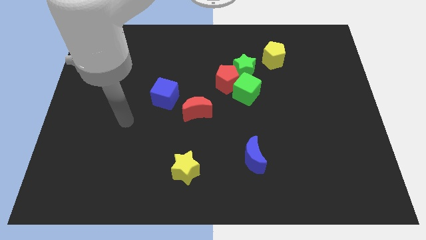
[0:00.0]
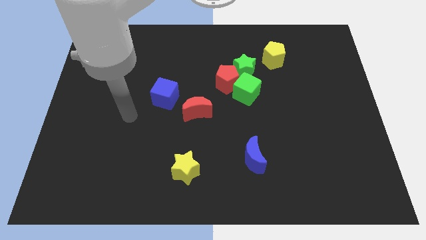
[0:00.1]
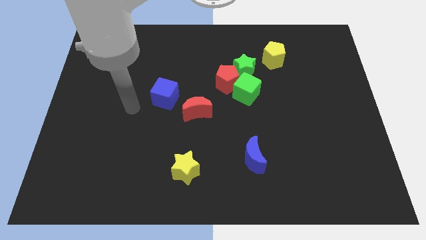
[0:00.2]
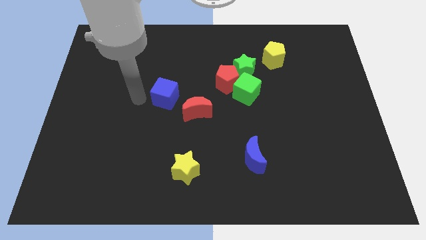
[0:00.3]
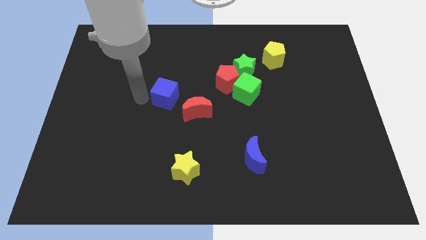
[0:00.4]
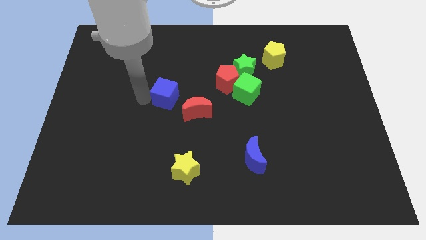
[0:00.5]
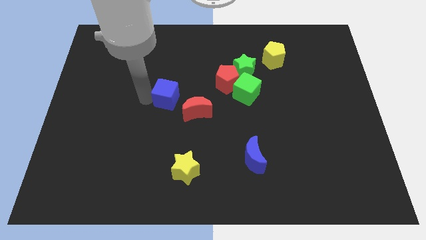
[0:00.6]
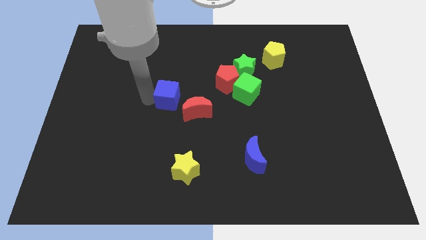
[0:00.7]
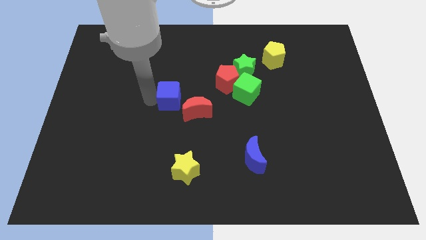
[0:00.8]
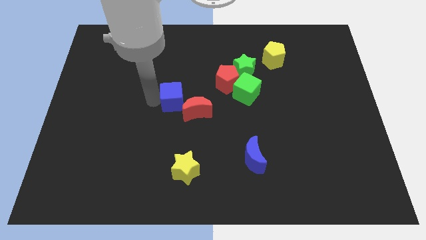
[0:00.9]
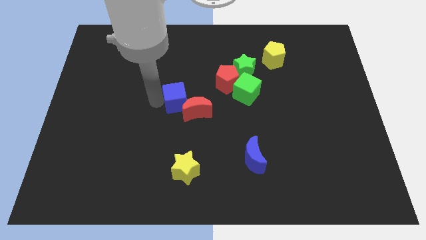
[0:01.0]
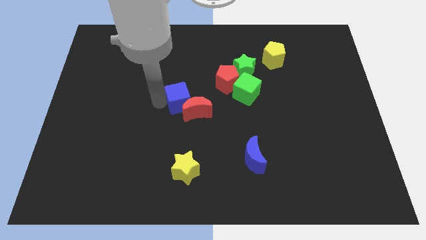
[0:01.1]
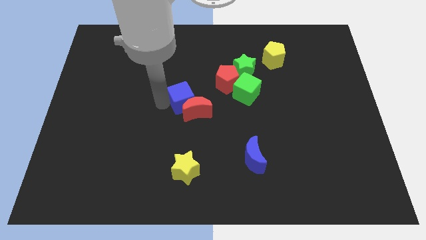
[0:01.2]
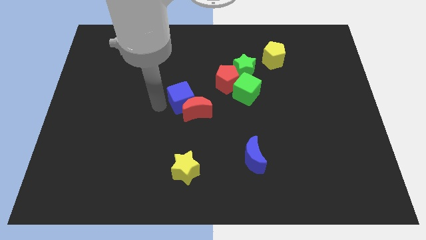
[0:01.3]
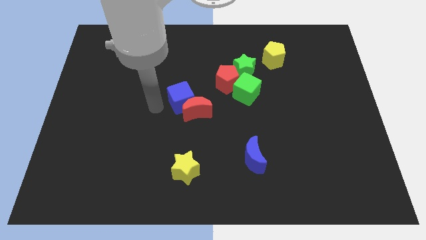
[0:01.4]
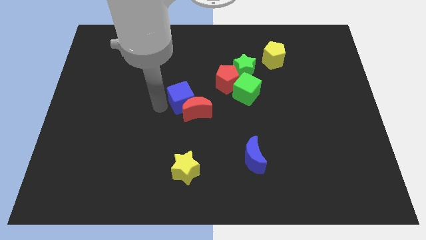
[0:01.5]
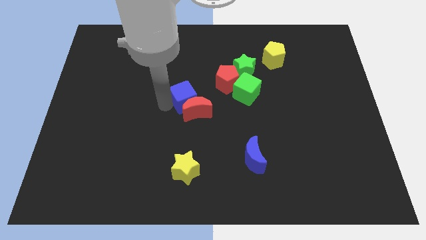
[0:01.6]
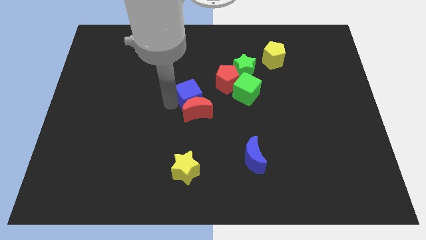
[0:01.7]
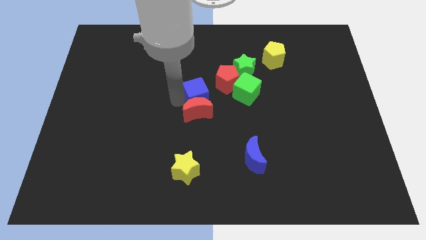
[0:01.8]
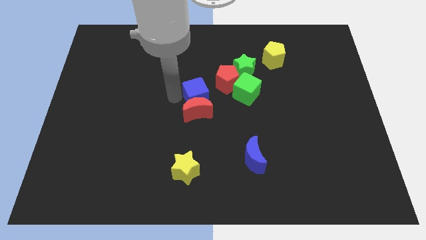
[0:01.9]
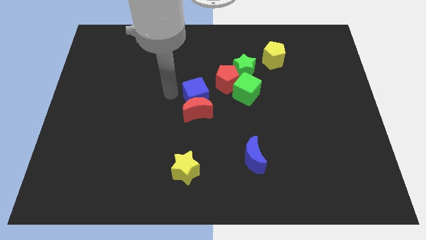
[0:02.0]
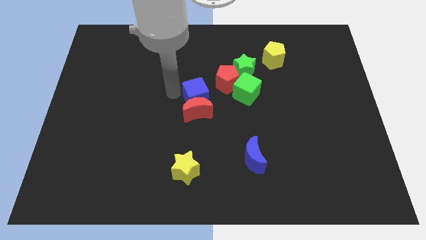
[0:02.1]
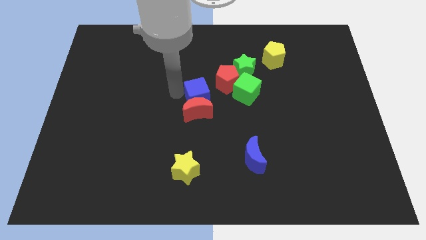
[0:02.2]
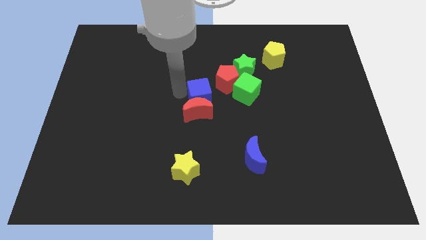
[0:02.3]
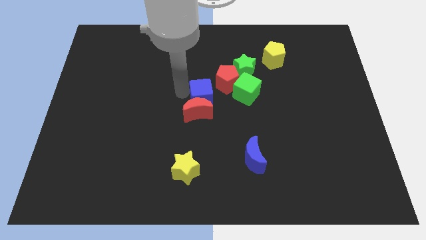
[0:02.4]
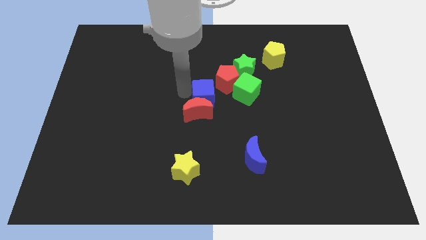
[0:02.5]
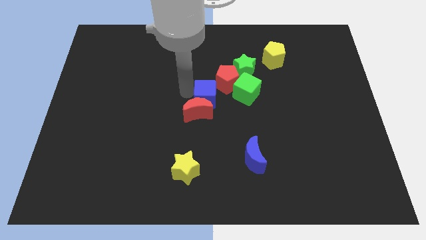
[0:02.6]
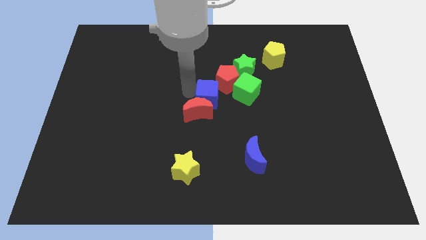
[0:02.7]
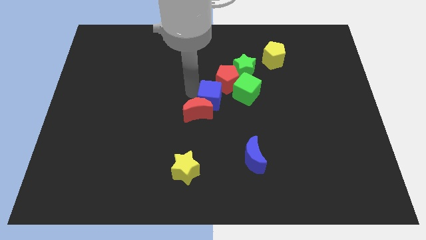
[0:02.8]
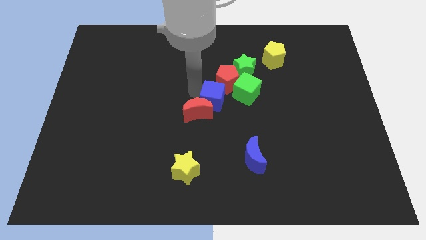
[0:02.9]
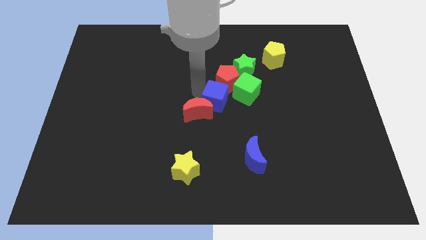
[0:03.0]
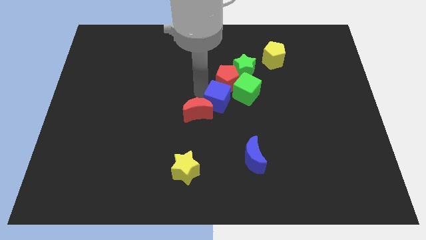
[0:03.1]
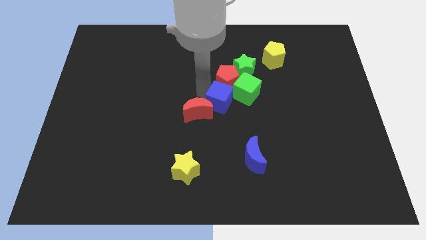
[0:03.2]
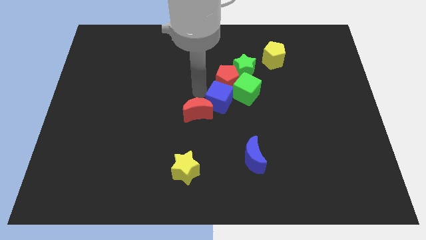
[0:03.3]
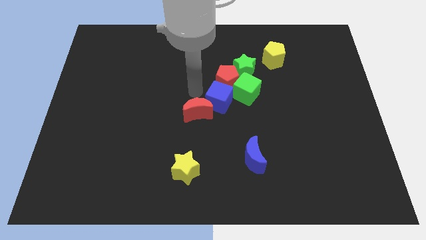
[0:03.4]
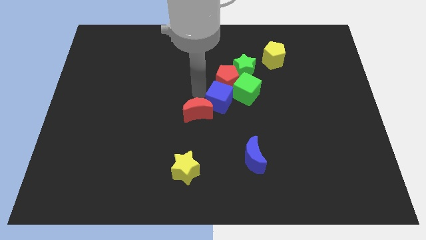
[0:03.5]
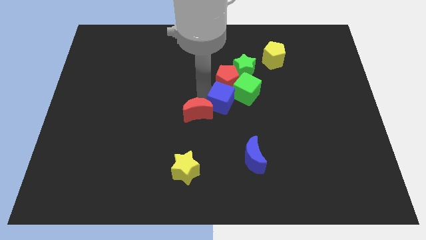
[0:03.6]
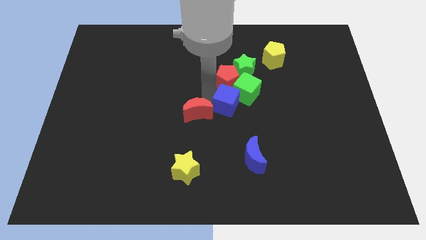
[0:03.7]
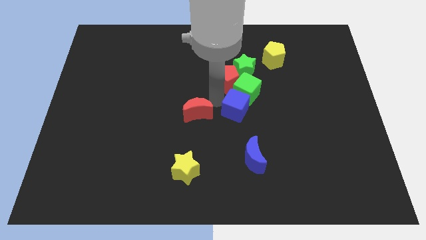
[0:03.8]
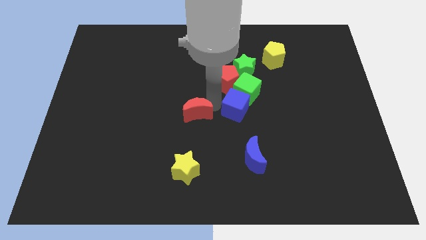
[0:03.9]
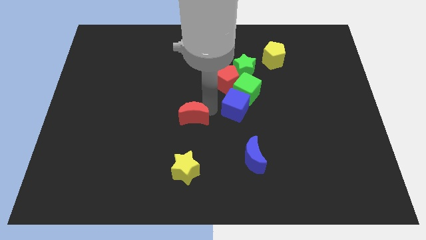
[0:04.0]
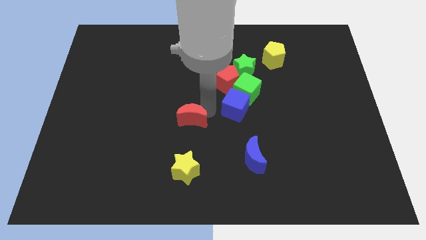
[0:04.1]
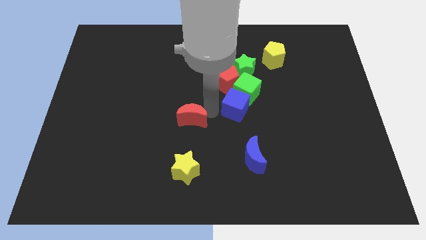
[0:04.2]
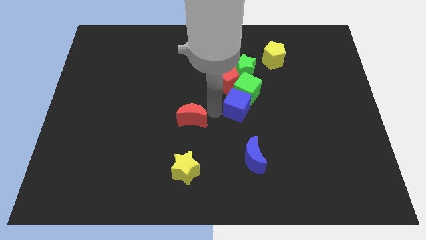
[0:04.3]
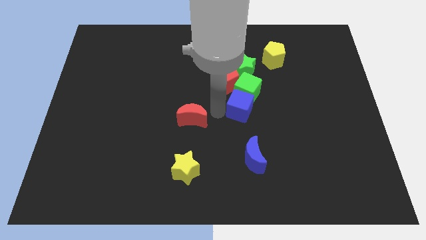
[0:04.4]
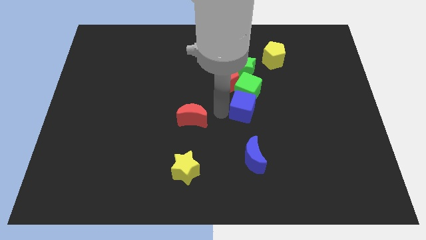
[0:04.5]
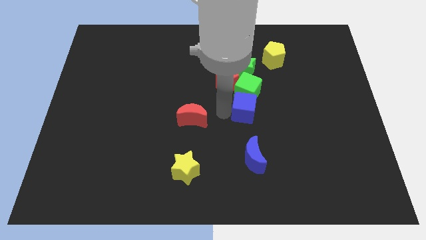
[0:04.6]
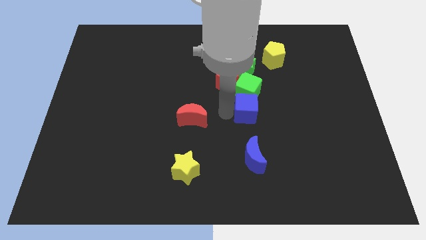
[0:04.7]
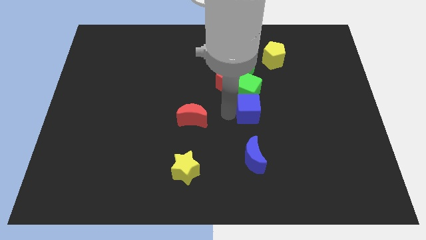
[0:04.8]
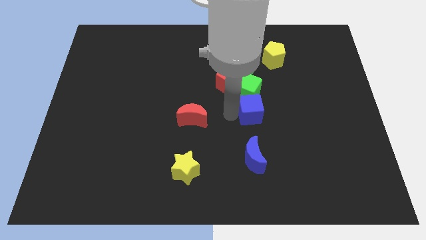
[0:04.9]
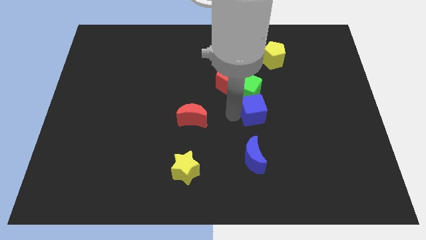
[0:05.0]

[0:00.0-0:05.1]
move the blue cube right

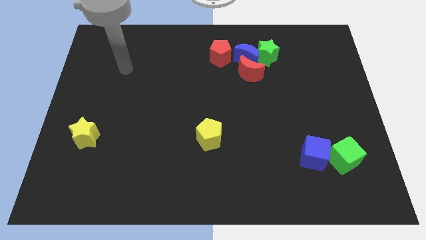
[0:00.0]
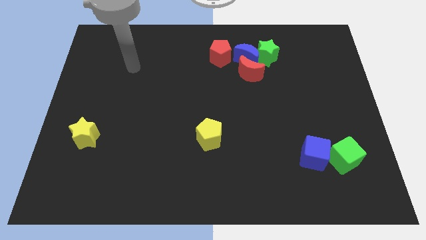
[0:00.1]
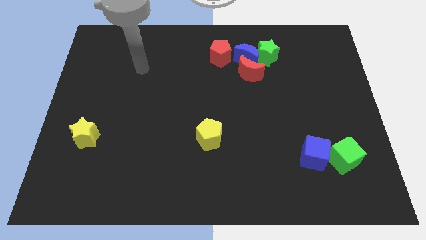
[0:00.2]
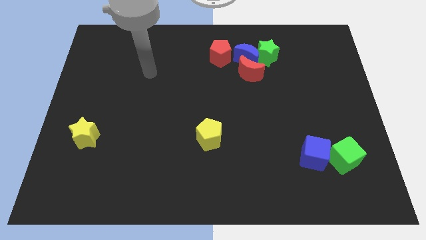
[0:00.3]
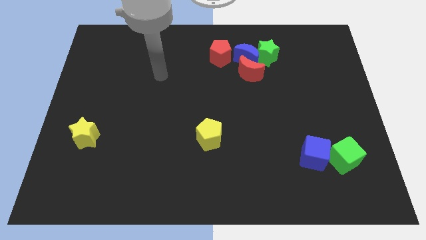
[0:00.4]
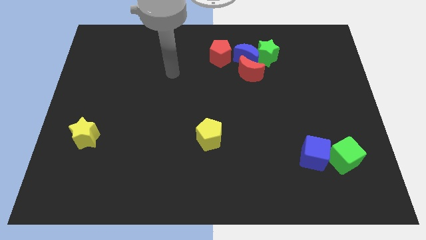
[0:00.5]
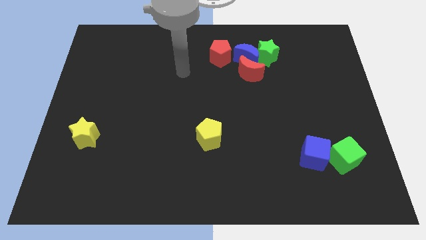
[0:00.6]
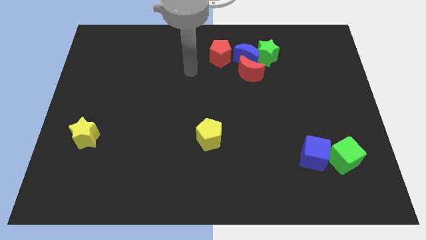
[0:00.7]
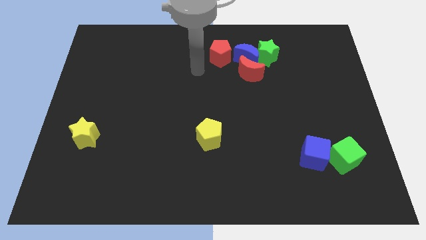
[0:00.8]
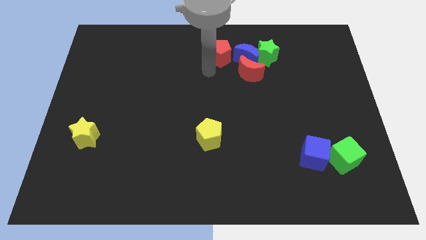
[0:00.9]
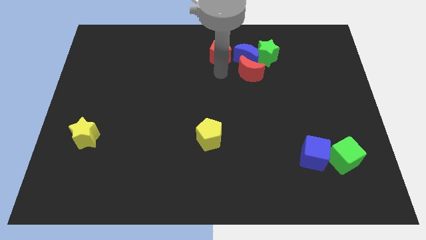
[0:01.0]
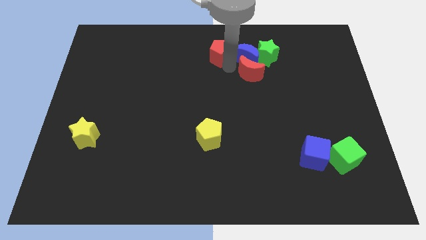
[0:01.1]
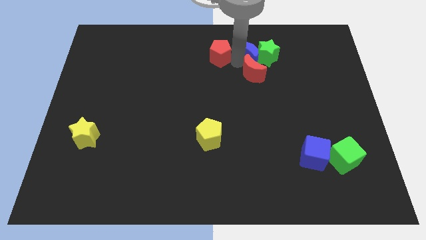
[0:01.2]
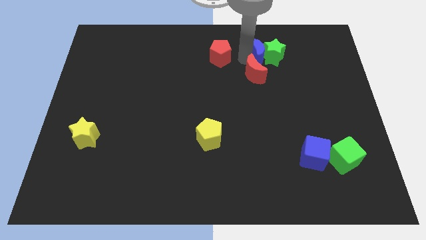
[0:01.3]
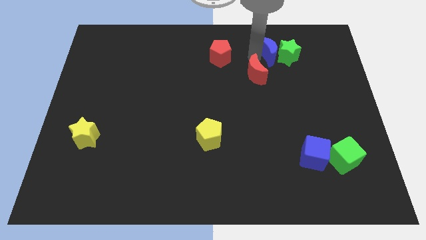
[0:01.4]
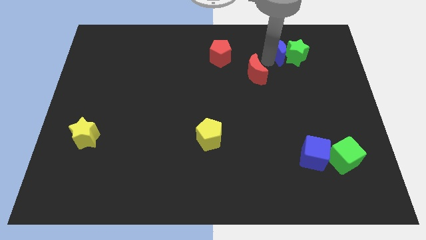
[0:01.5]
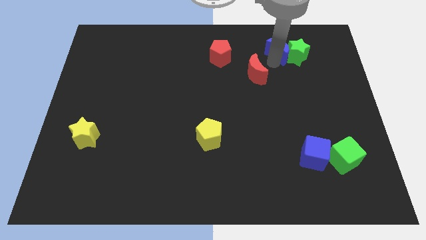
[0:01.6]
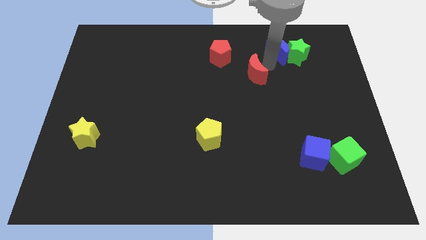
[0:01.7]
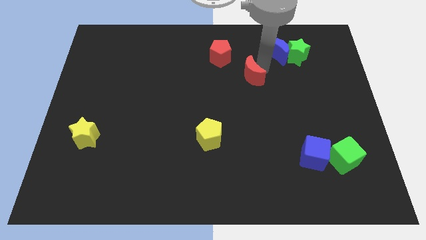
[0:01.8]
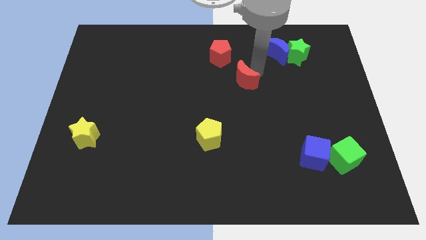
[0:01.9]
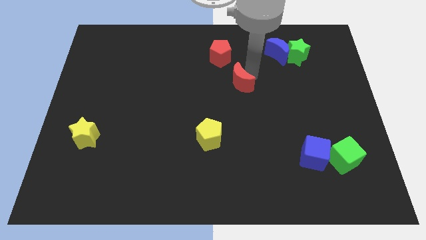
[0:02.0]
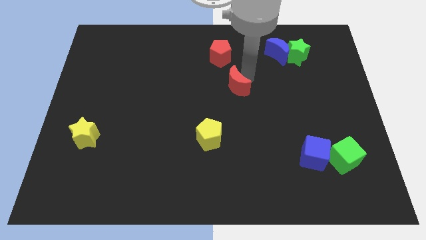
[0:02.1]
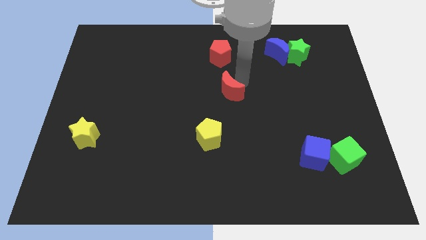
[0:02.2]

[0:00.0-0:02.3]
slide the red moon diagonally downwards and left somewhat

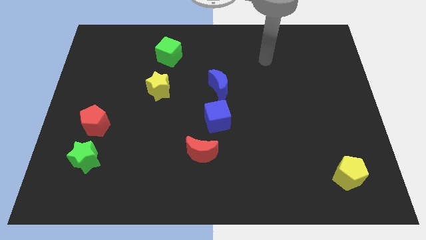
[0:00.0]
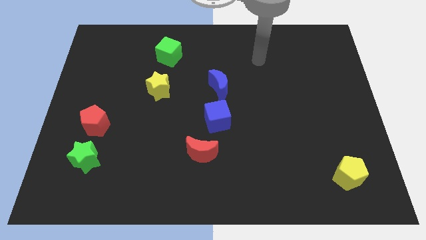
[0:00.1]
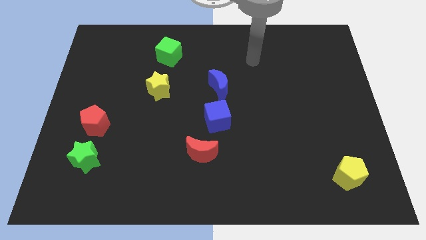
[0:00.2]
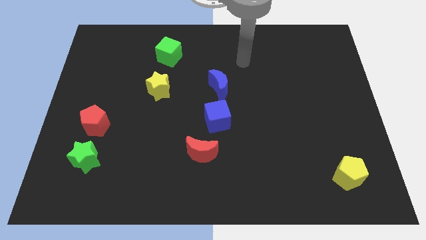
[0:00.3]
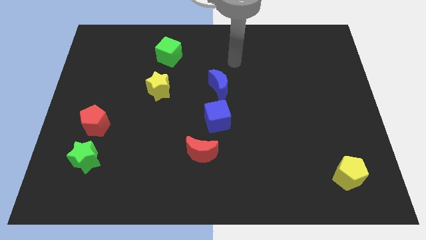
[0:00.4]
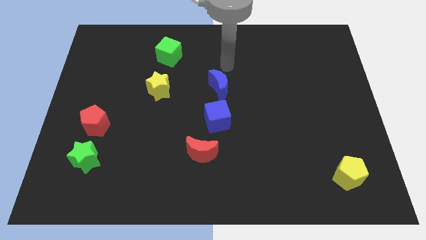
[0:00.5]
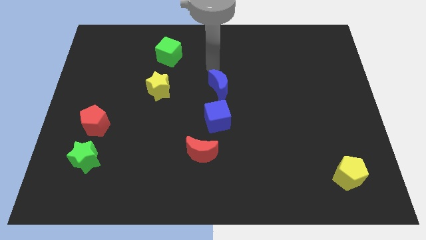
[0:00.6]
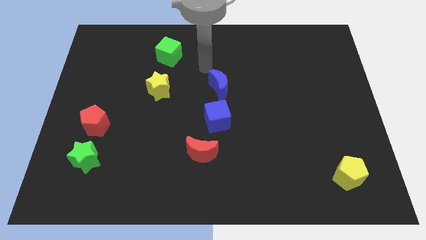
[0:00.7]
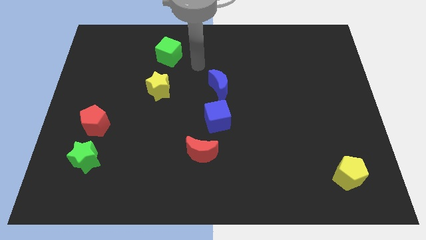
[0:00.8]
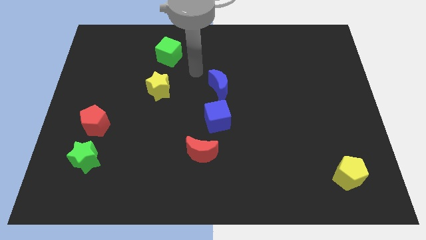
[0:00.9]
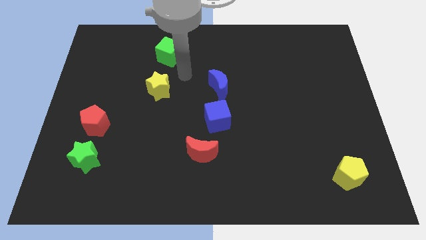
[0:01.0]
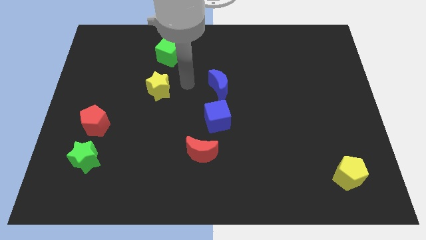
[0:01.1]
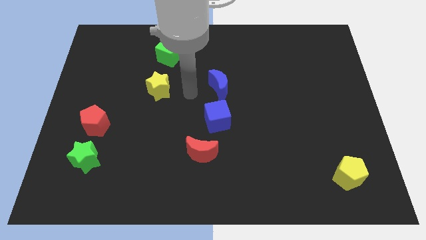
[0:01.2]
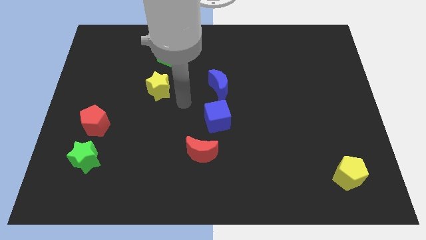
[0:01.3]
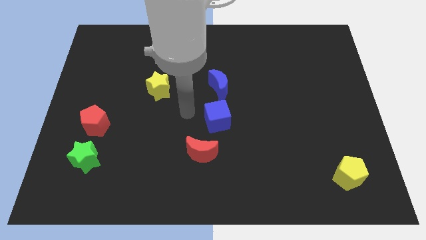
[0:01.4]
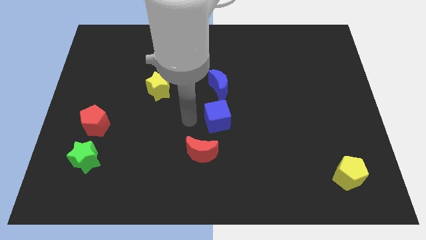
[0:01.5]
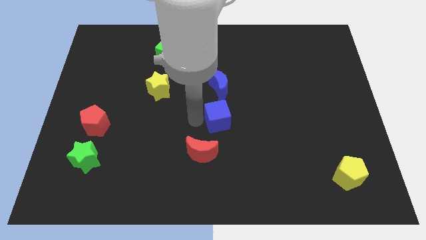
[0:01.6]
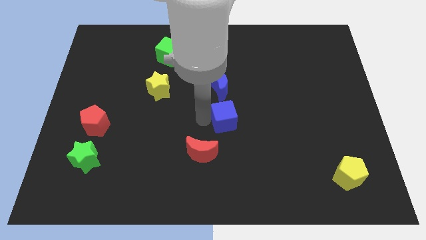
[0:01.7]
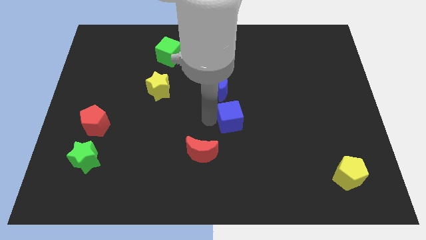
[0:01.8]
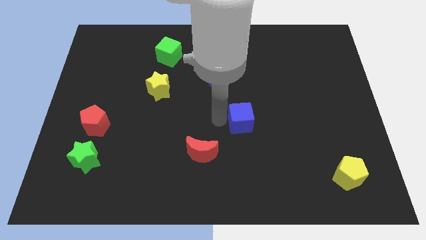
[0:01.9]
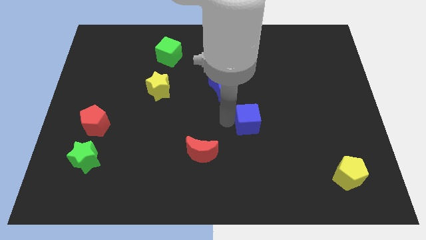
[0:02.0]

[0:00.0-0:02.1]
slide the blue cube to the right slightly
